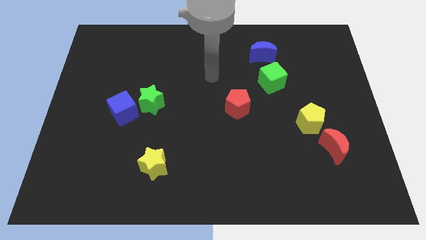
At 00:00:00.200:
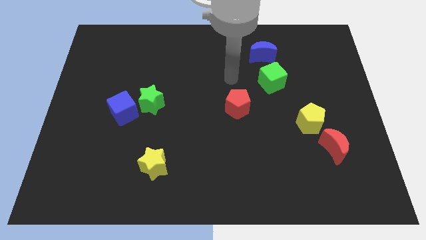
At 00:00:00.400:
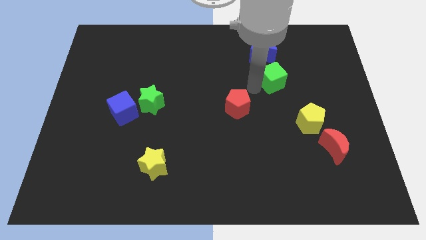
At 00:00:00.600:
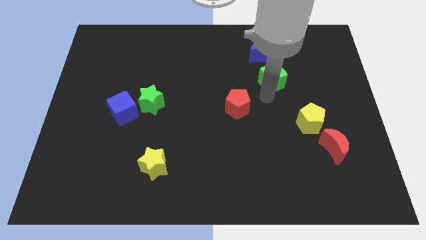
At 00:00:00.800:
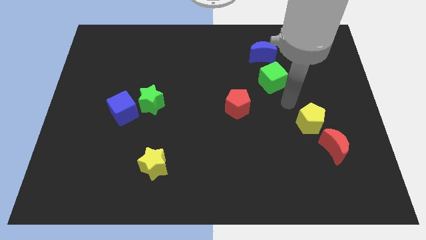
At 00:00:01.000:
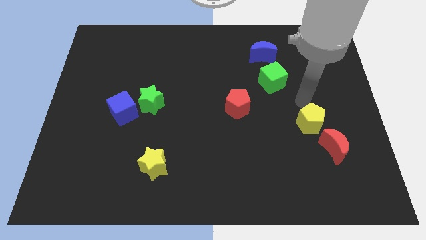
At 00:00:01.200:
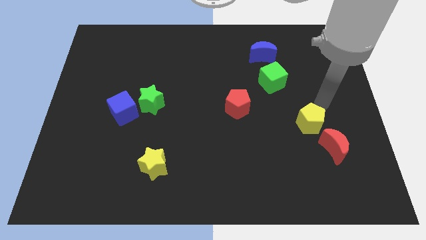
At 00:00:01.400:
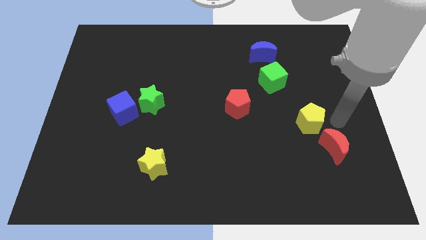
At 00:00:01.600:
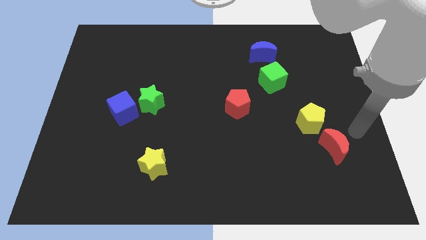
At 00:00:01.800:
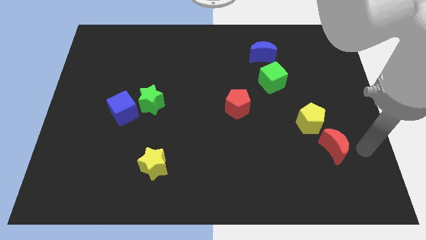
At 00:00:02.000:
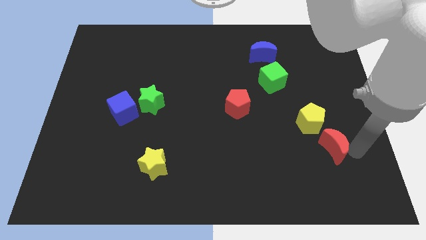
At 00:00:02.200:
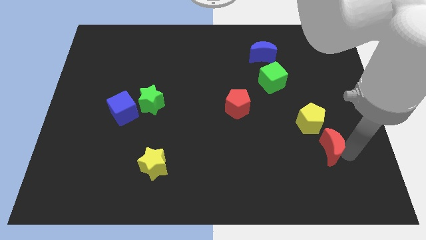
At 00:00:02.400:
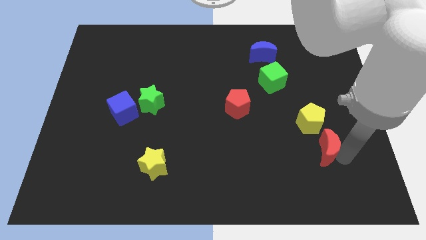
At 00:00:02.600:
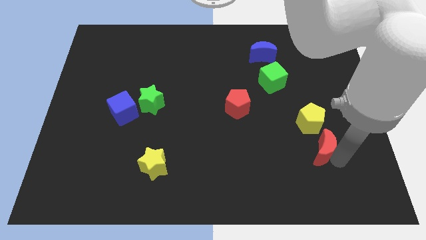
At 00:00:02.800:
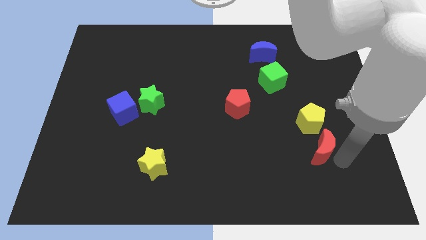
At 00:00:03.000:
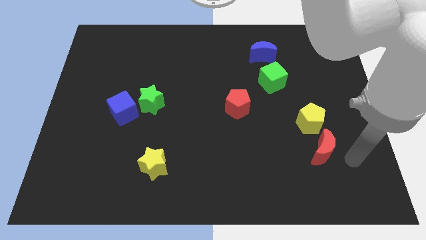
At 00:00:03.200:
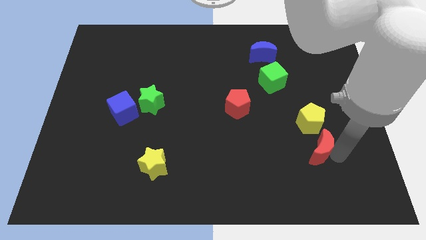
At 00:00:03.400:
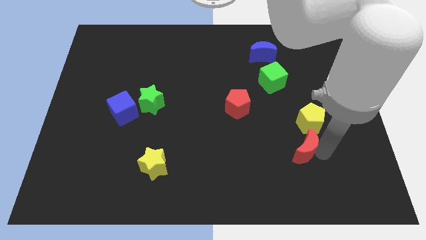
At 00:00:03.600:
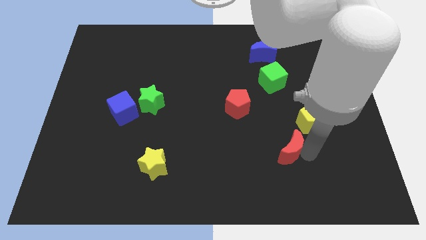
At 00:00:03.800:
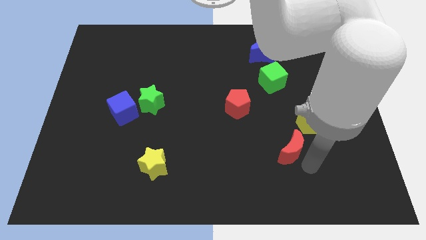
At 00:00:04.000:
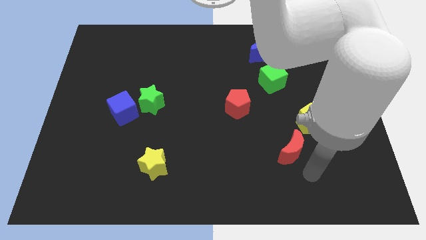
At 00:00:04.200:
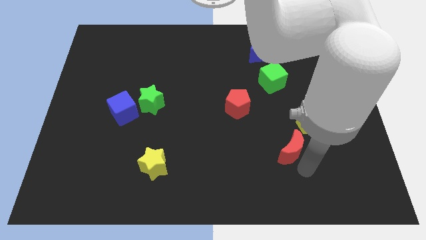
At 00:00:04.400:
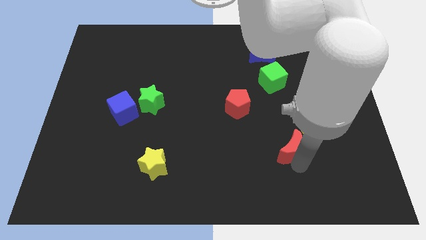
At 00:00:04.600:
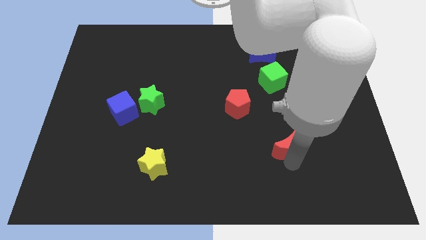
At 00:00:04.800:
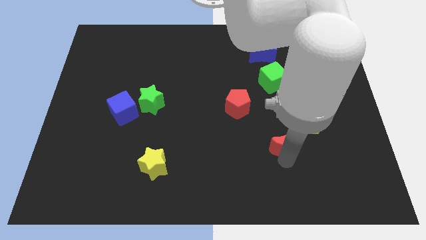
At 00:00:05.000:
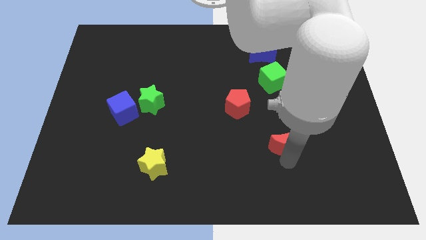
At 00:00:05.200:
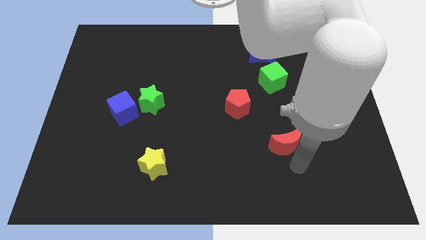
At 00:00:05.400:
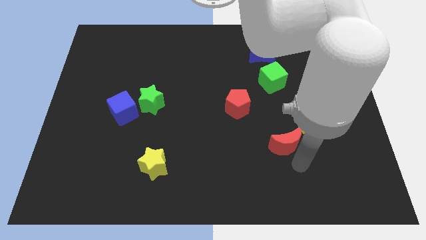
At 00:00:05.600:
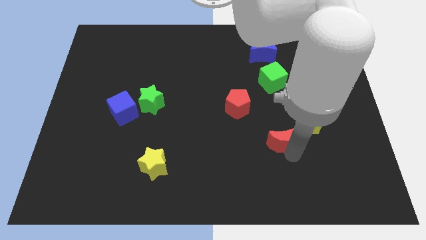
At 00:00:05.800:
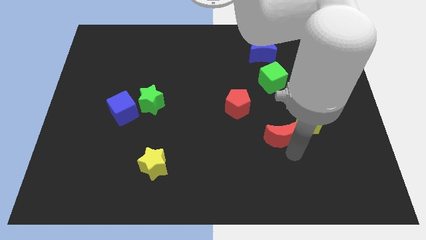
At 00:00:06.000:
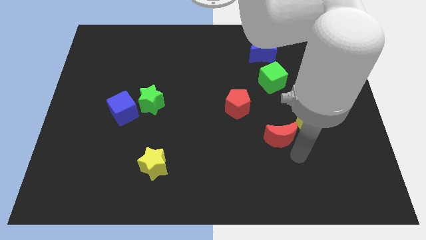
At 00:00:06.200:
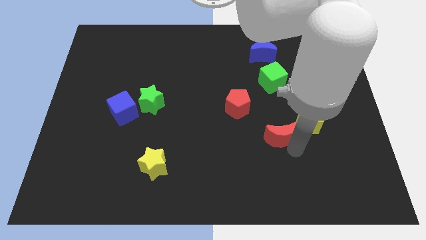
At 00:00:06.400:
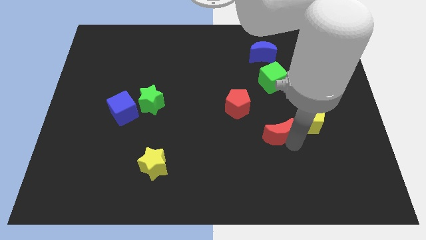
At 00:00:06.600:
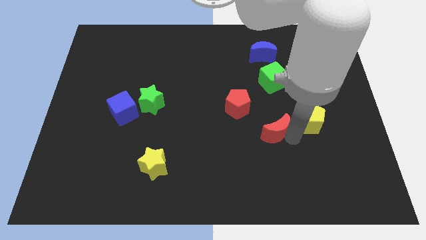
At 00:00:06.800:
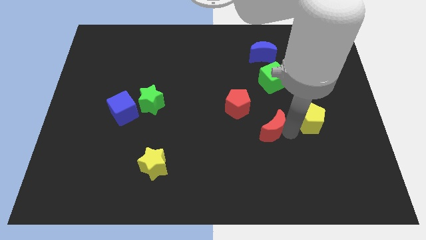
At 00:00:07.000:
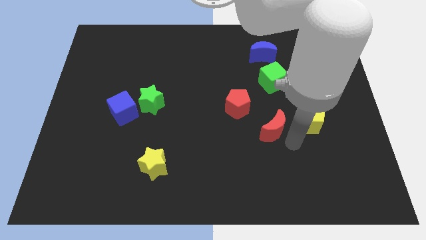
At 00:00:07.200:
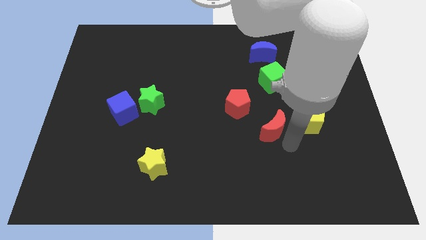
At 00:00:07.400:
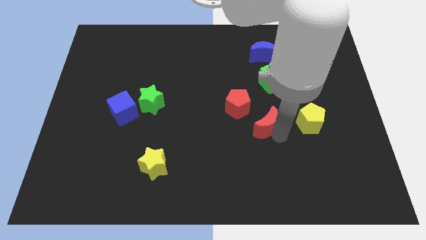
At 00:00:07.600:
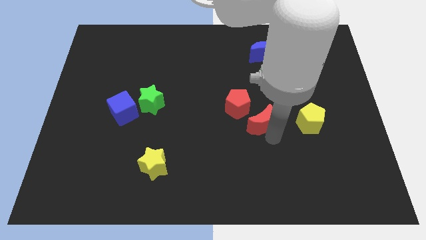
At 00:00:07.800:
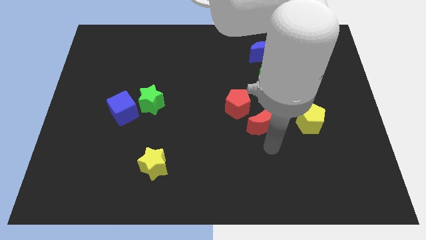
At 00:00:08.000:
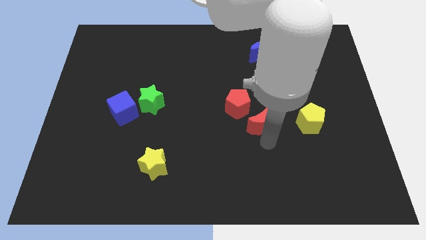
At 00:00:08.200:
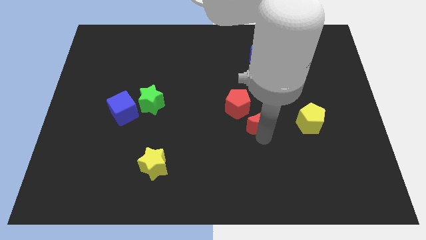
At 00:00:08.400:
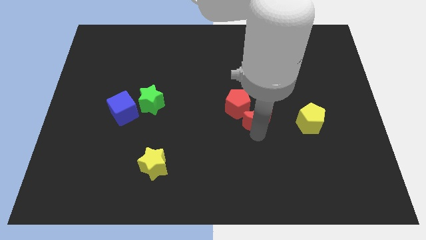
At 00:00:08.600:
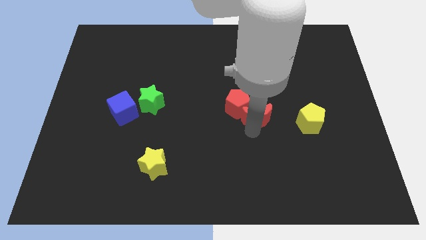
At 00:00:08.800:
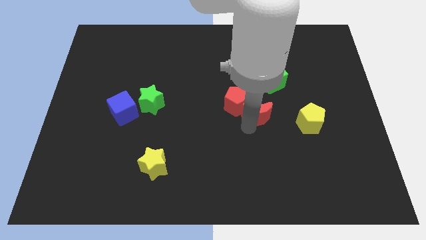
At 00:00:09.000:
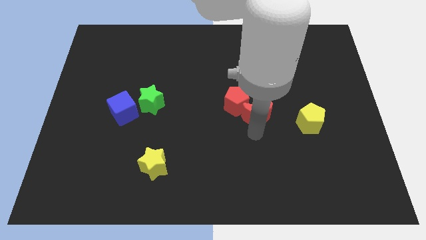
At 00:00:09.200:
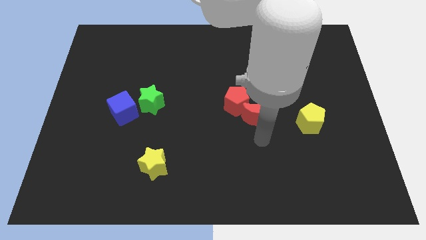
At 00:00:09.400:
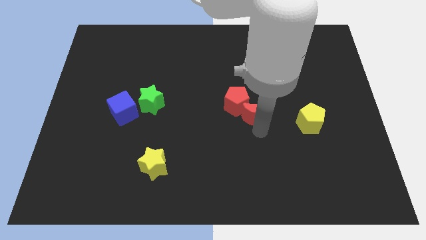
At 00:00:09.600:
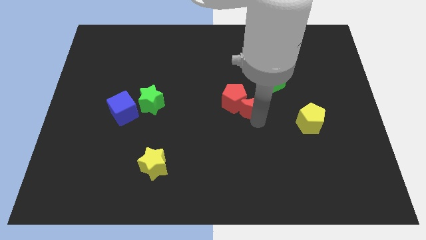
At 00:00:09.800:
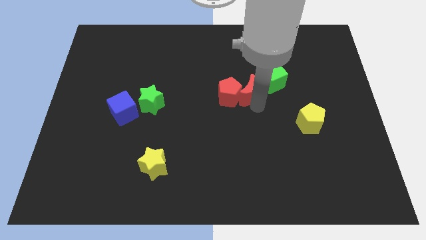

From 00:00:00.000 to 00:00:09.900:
push the red moon left of the green cube
